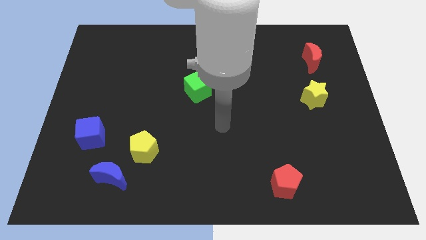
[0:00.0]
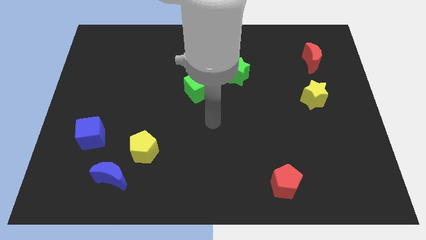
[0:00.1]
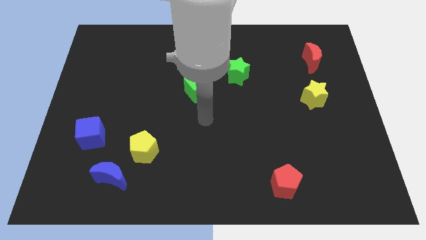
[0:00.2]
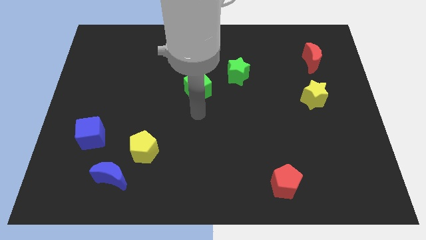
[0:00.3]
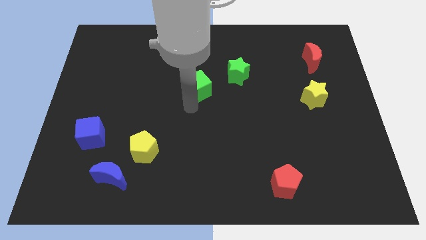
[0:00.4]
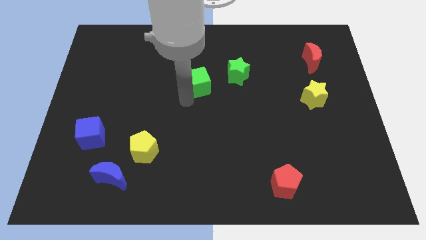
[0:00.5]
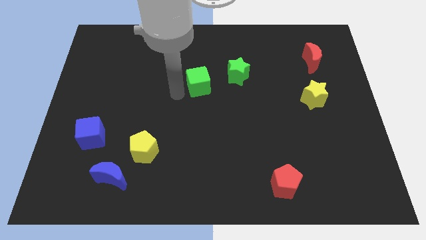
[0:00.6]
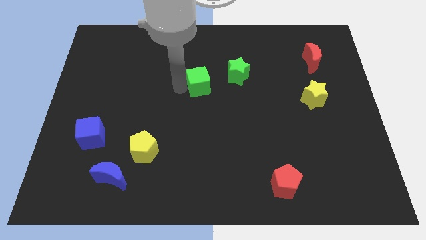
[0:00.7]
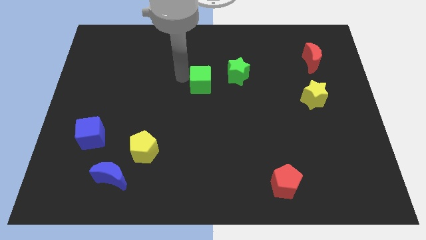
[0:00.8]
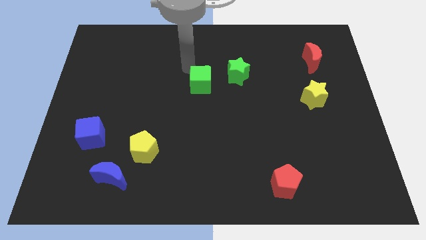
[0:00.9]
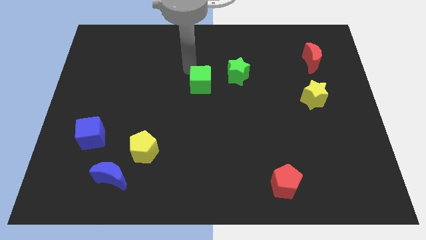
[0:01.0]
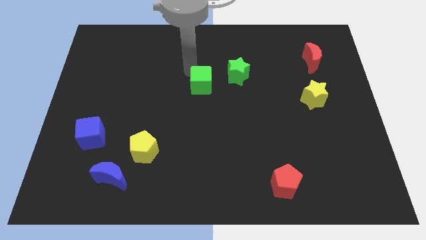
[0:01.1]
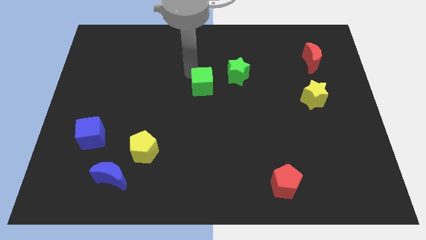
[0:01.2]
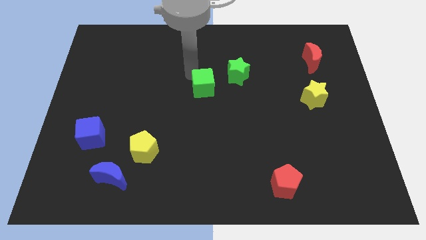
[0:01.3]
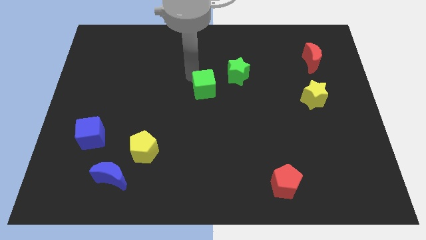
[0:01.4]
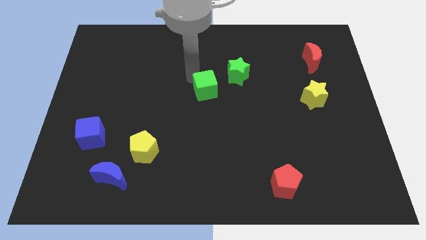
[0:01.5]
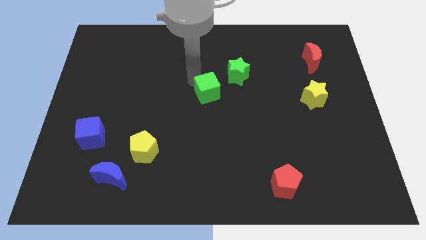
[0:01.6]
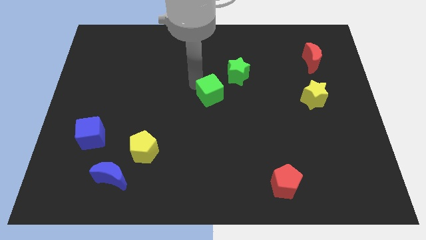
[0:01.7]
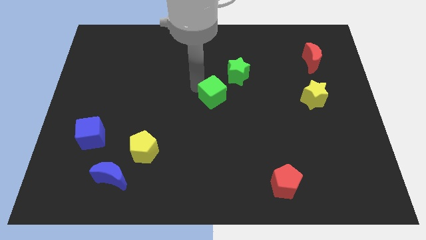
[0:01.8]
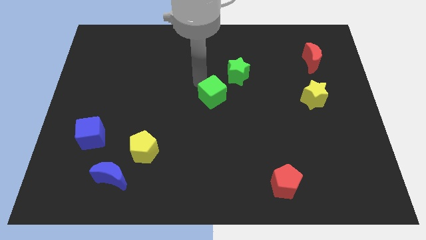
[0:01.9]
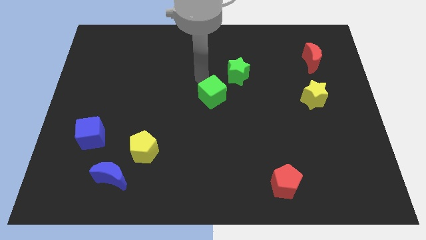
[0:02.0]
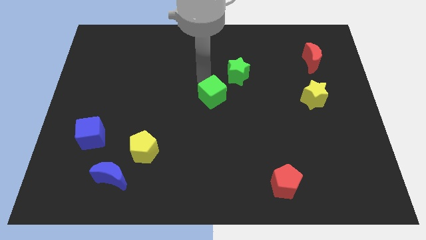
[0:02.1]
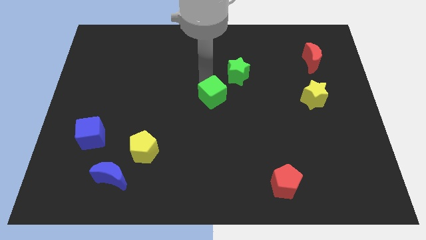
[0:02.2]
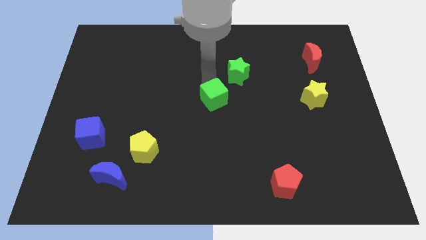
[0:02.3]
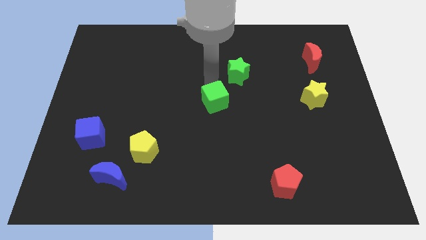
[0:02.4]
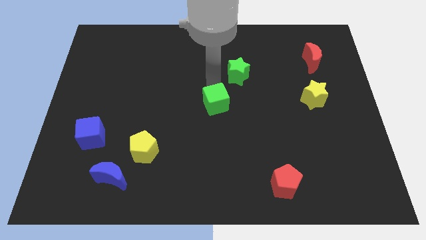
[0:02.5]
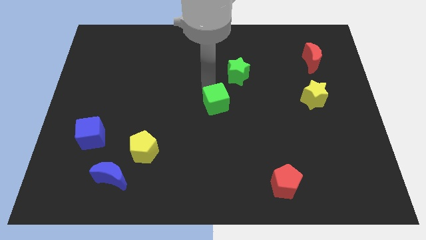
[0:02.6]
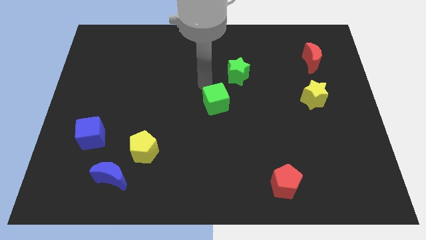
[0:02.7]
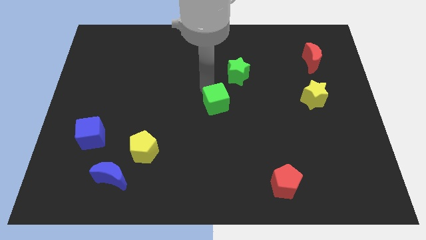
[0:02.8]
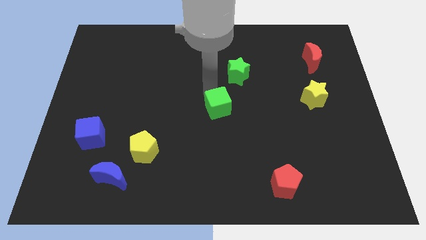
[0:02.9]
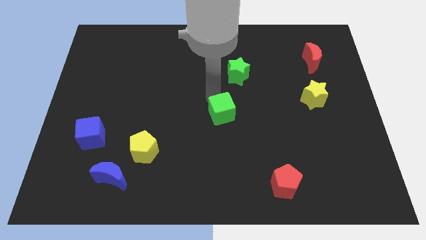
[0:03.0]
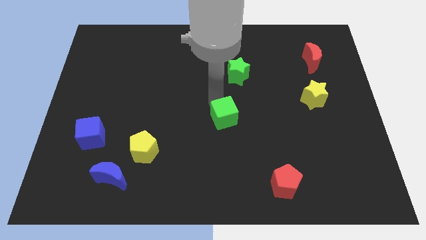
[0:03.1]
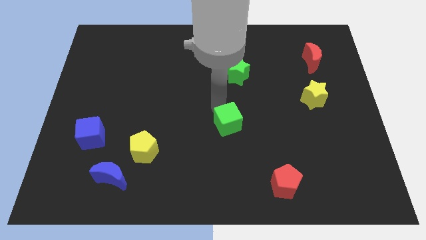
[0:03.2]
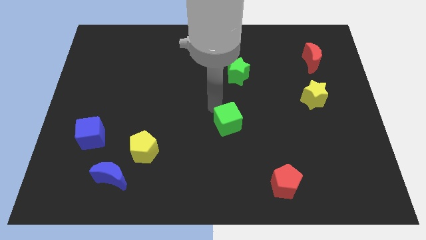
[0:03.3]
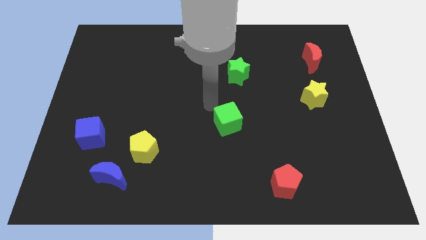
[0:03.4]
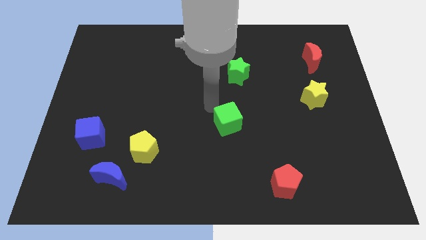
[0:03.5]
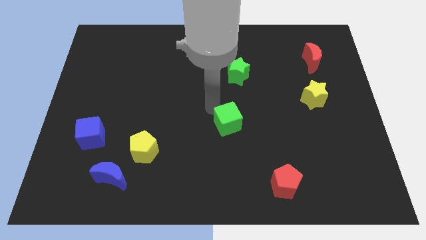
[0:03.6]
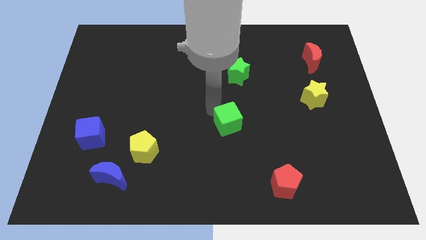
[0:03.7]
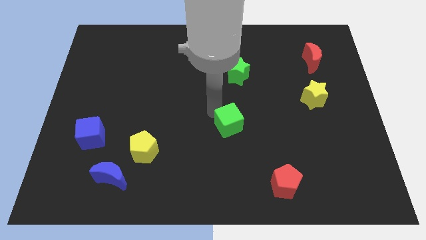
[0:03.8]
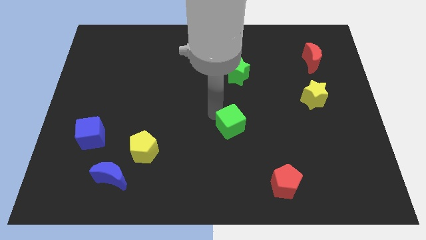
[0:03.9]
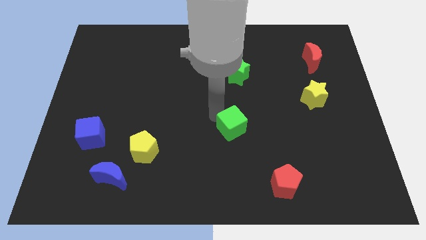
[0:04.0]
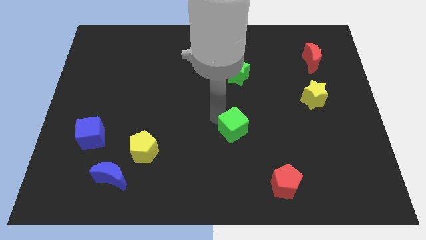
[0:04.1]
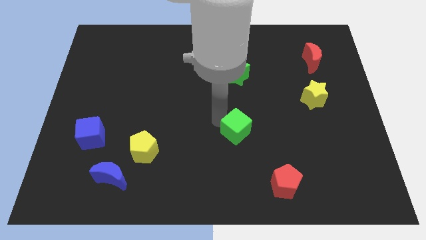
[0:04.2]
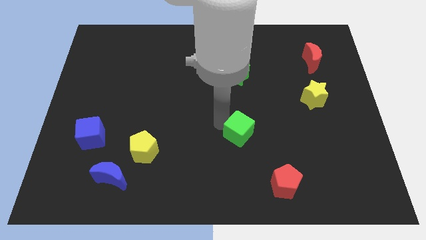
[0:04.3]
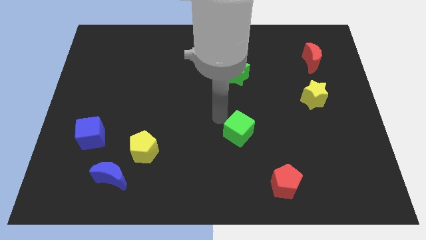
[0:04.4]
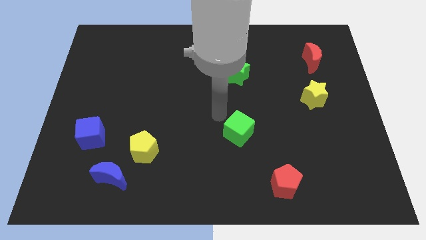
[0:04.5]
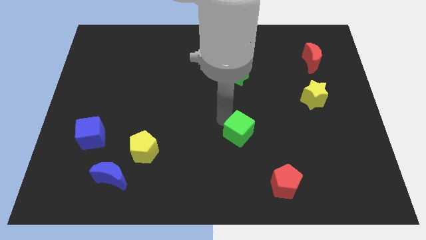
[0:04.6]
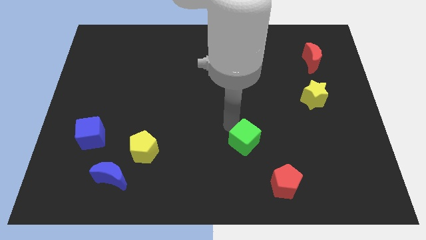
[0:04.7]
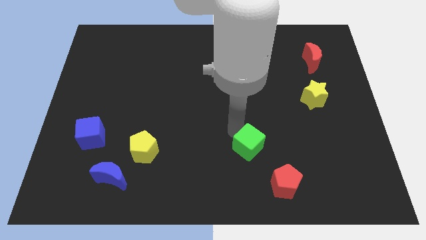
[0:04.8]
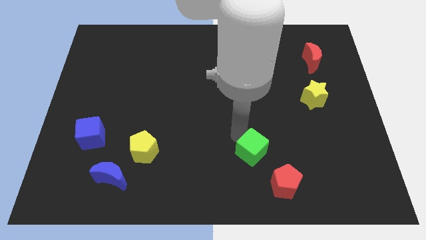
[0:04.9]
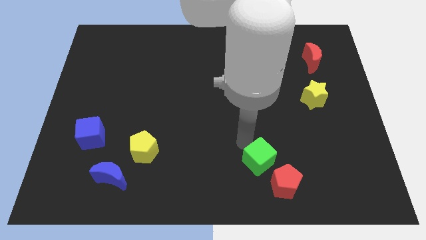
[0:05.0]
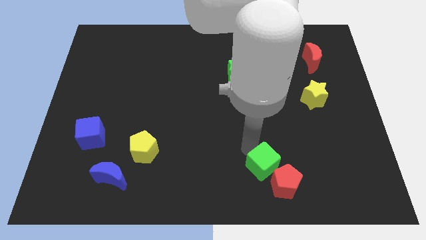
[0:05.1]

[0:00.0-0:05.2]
push the green cube towards the red pentagon

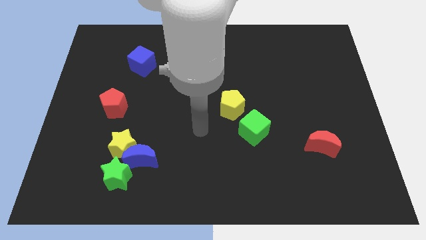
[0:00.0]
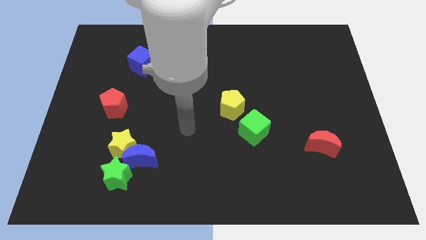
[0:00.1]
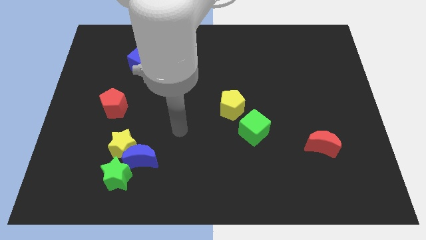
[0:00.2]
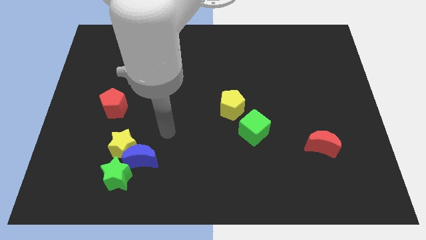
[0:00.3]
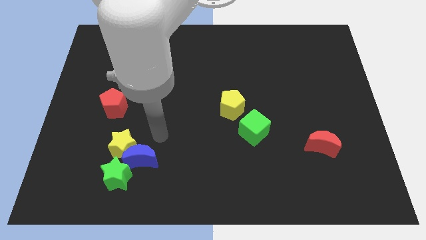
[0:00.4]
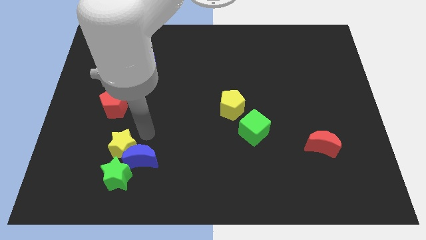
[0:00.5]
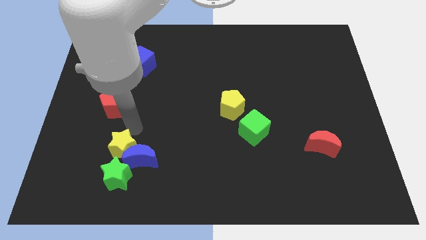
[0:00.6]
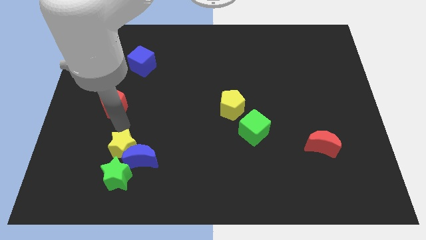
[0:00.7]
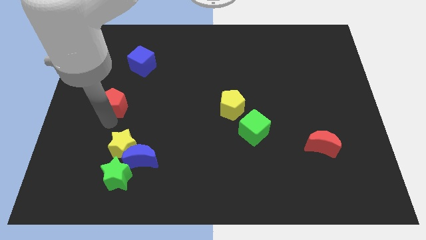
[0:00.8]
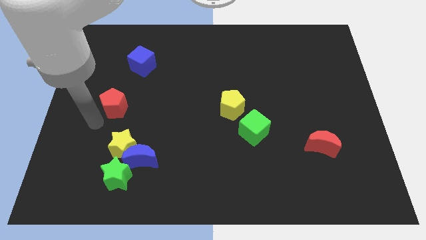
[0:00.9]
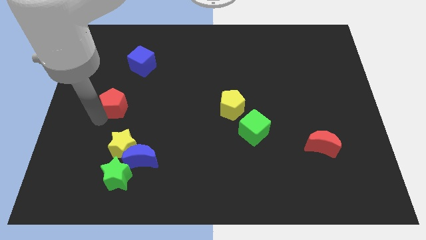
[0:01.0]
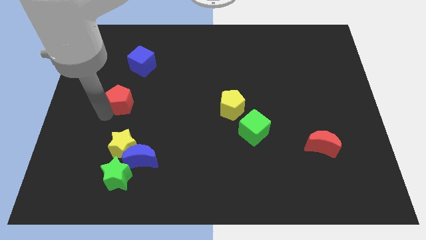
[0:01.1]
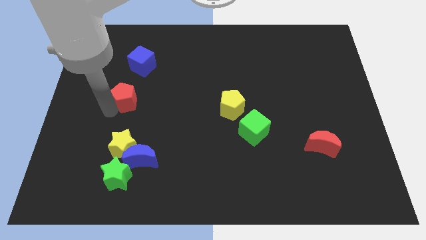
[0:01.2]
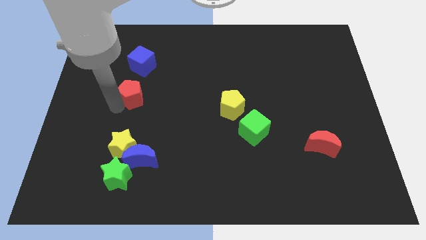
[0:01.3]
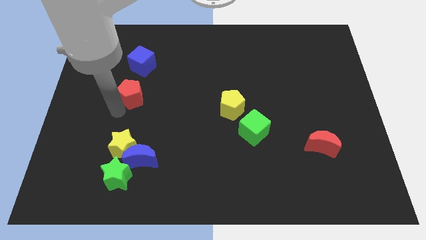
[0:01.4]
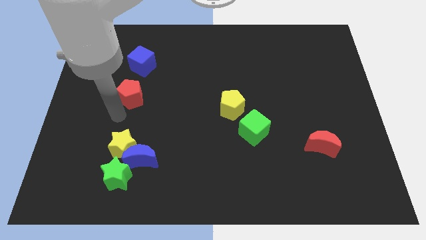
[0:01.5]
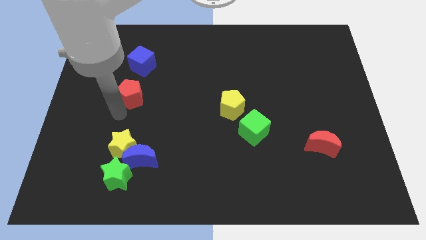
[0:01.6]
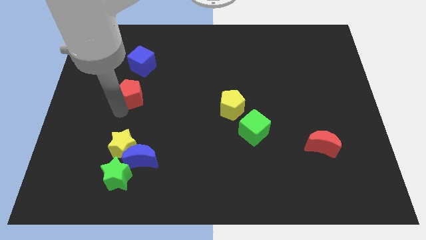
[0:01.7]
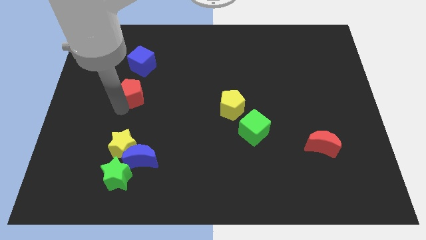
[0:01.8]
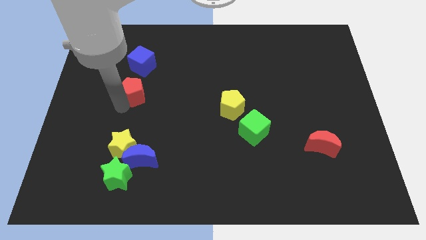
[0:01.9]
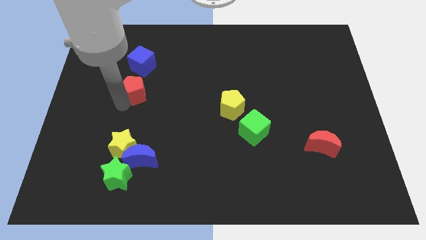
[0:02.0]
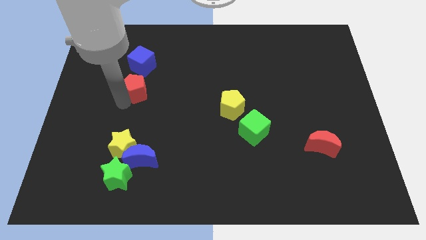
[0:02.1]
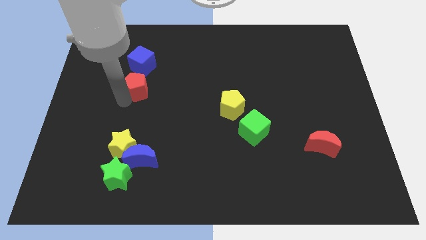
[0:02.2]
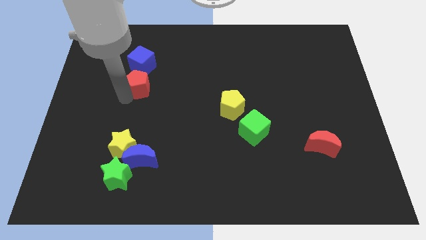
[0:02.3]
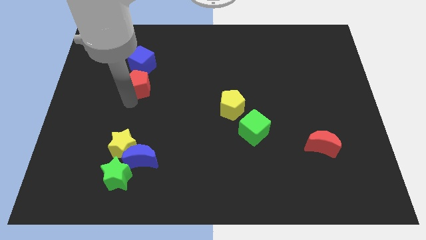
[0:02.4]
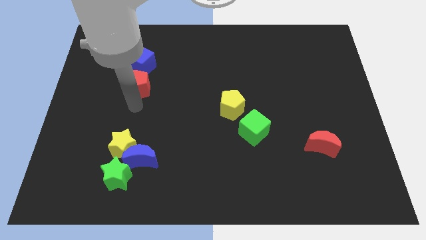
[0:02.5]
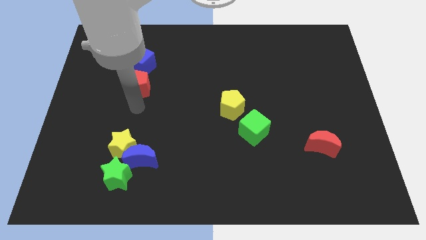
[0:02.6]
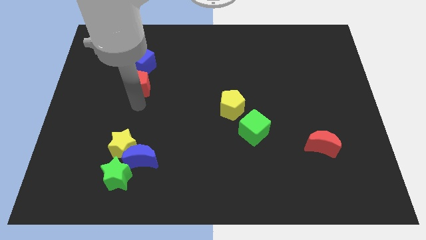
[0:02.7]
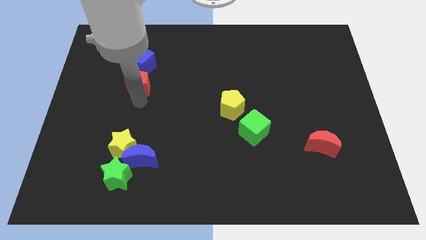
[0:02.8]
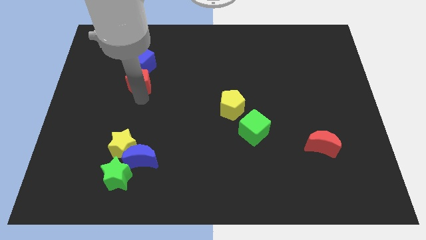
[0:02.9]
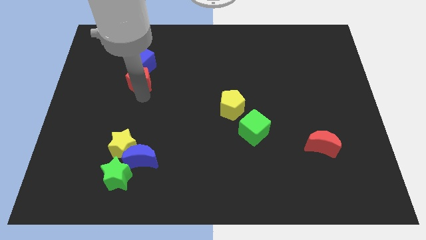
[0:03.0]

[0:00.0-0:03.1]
move the red pentagon to the blue cube
